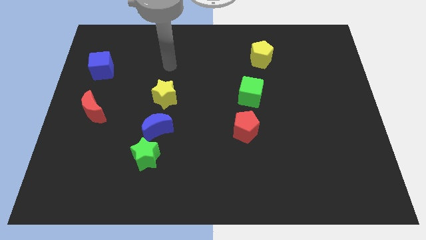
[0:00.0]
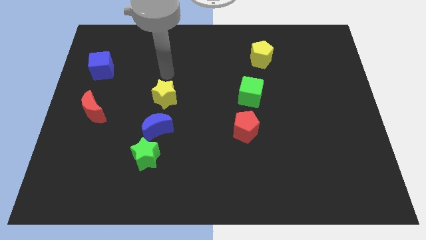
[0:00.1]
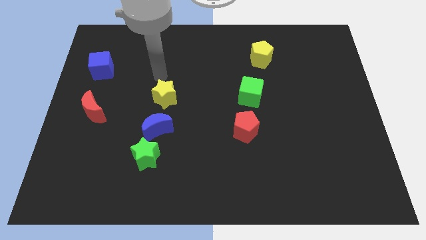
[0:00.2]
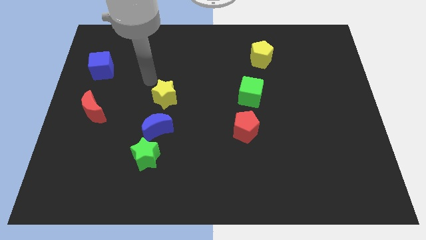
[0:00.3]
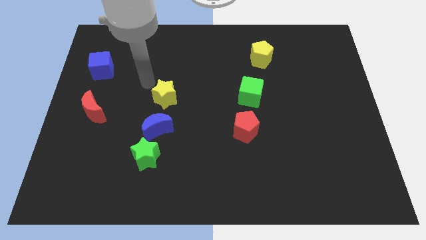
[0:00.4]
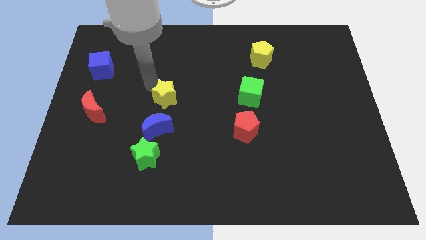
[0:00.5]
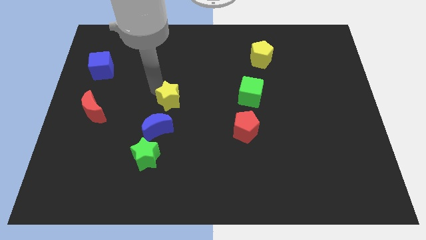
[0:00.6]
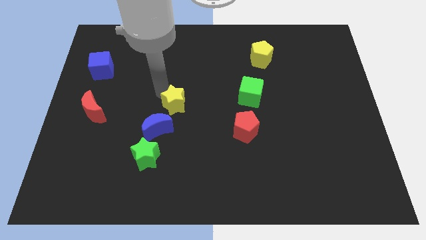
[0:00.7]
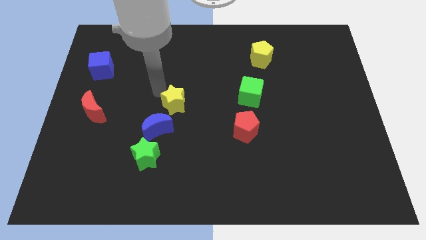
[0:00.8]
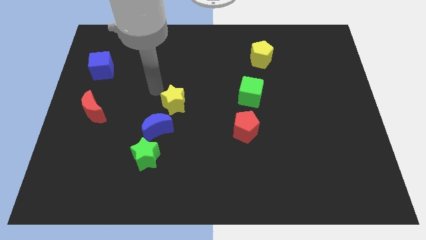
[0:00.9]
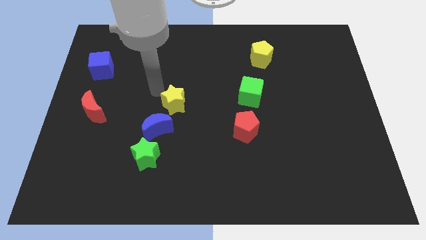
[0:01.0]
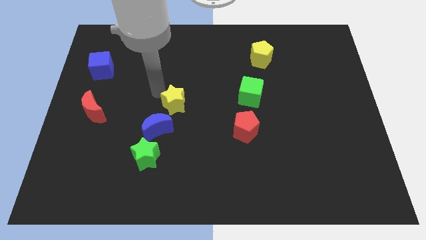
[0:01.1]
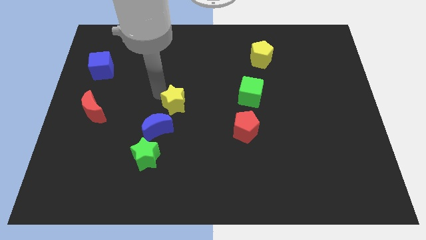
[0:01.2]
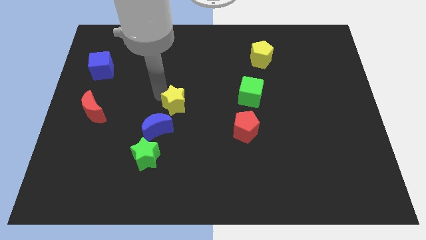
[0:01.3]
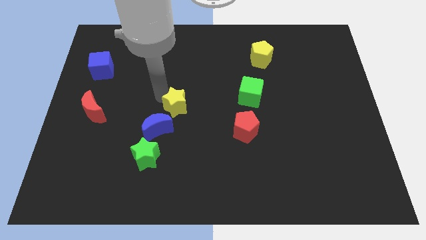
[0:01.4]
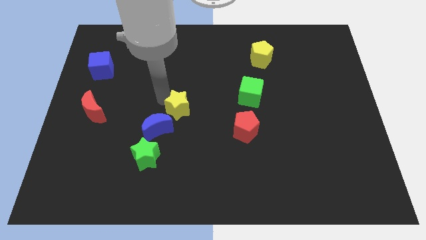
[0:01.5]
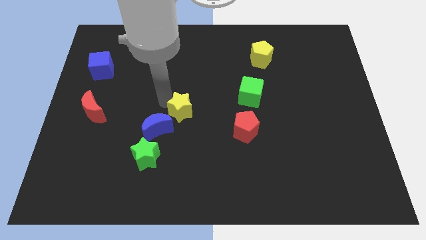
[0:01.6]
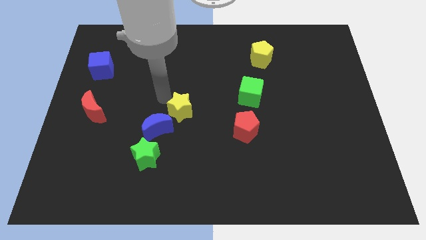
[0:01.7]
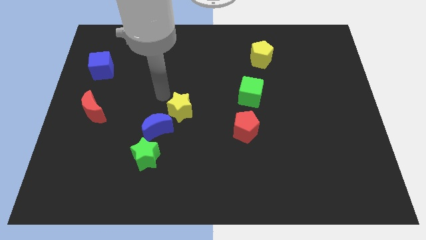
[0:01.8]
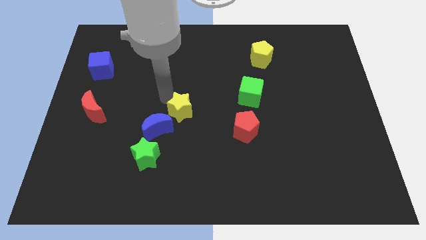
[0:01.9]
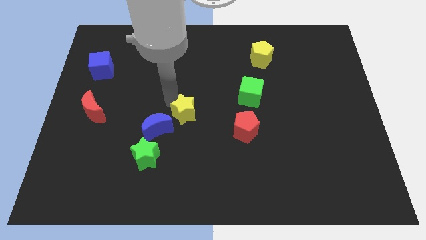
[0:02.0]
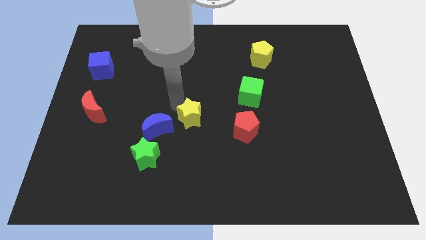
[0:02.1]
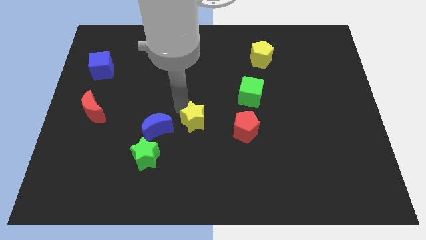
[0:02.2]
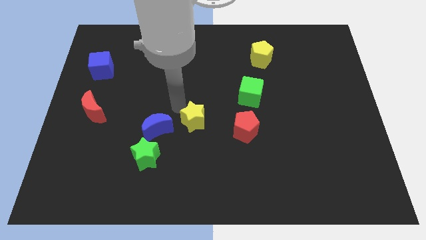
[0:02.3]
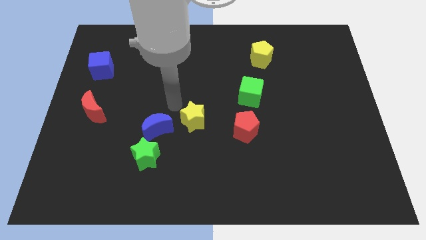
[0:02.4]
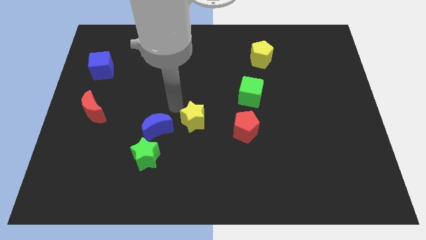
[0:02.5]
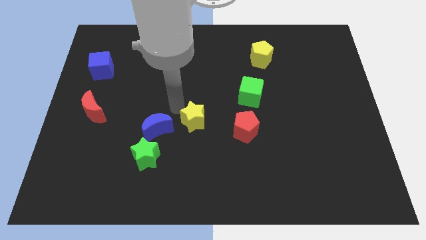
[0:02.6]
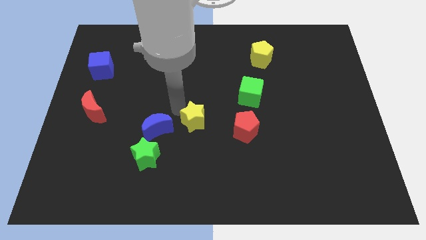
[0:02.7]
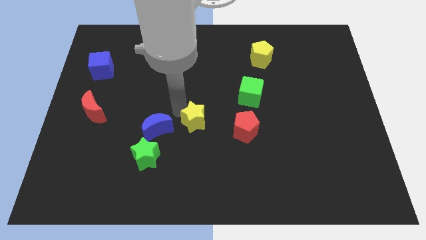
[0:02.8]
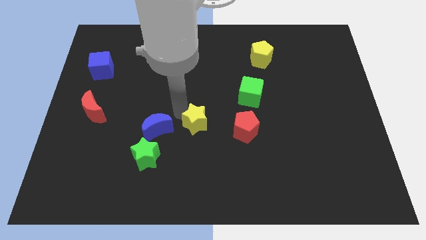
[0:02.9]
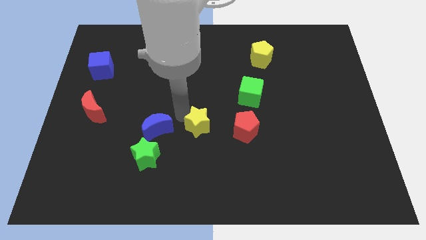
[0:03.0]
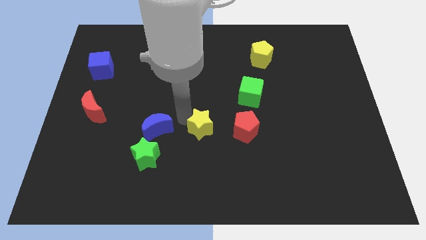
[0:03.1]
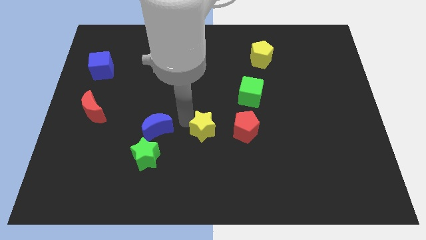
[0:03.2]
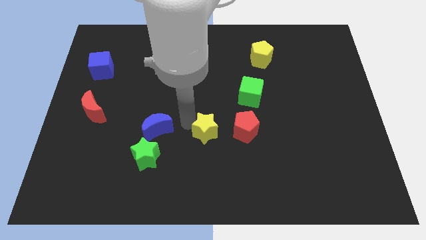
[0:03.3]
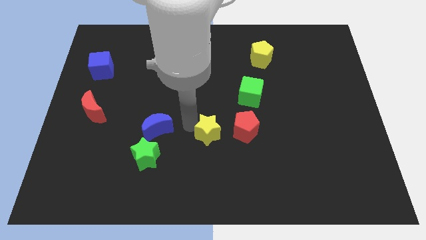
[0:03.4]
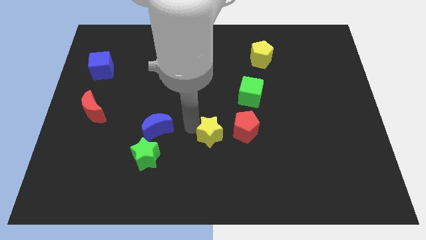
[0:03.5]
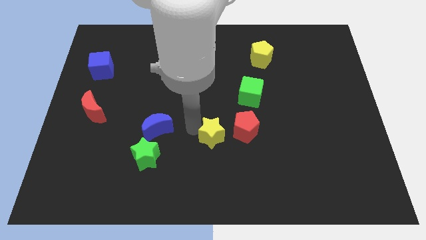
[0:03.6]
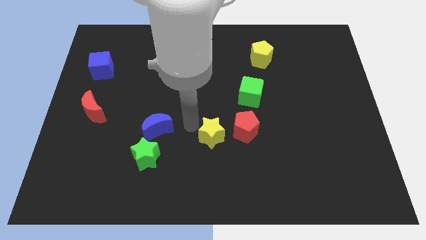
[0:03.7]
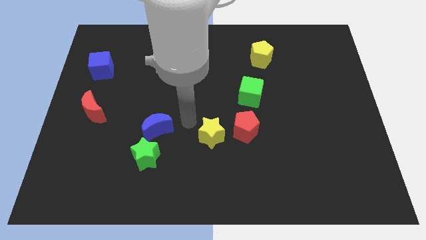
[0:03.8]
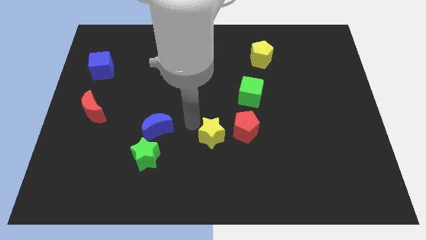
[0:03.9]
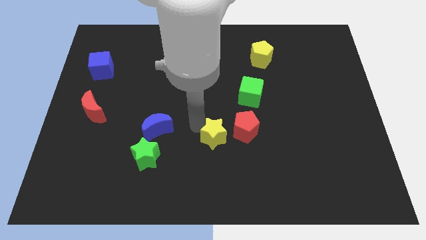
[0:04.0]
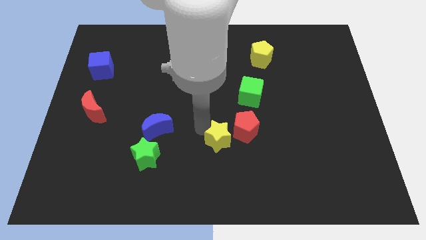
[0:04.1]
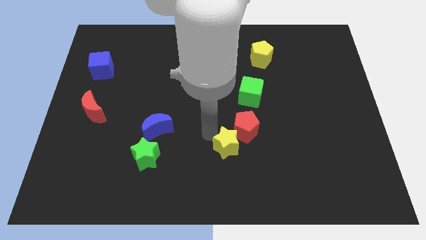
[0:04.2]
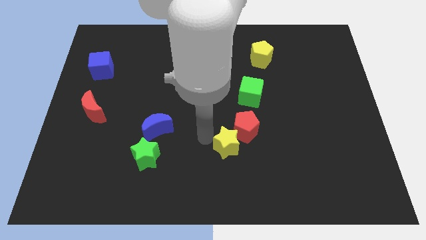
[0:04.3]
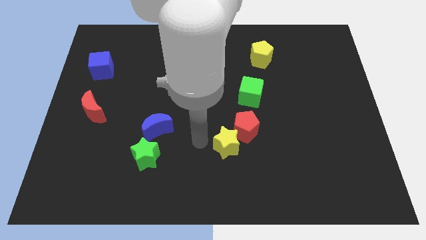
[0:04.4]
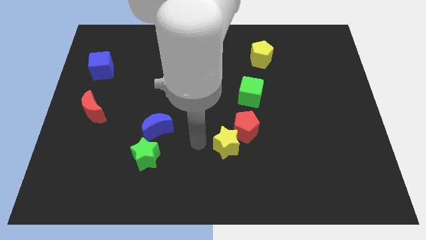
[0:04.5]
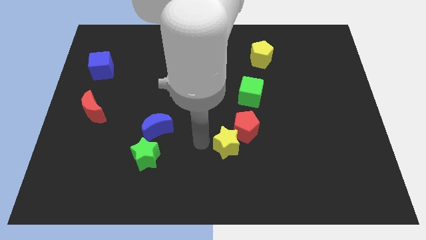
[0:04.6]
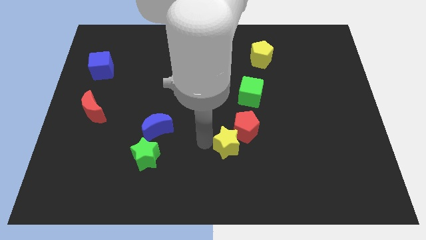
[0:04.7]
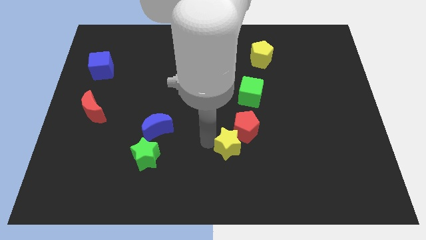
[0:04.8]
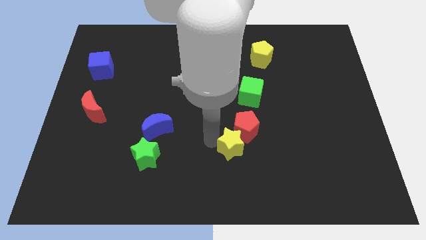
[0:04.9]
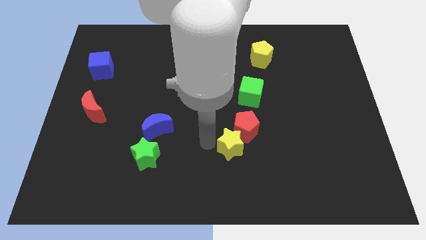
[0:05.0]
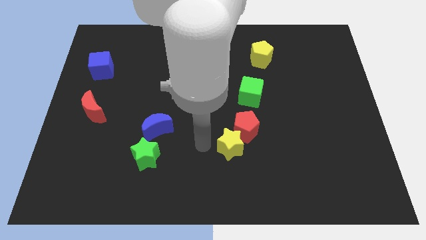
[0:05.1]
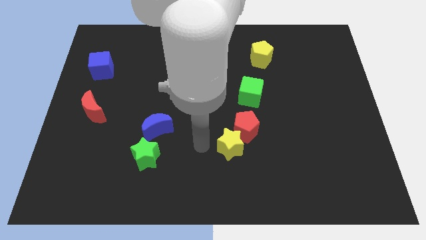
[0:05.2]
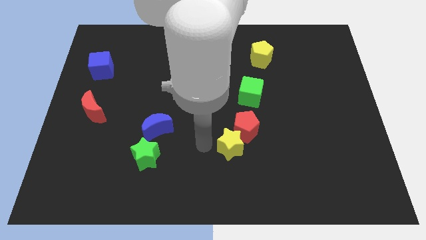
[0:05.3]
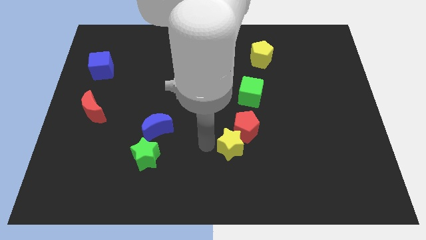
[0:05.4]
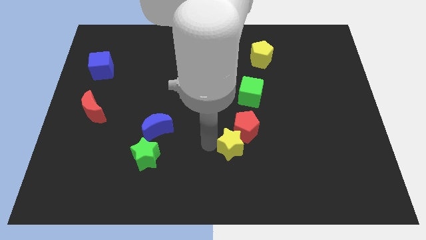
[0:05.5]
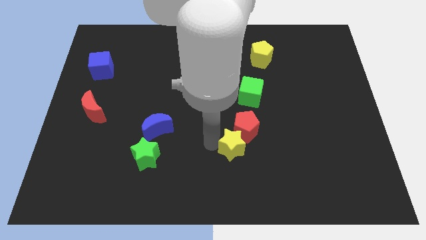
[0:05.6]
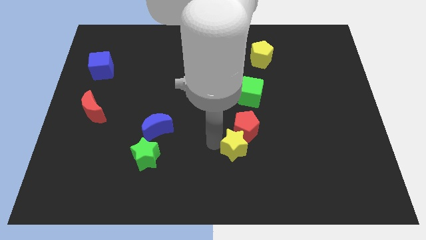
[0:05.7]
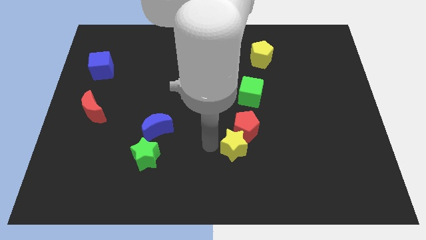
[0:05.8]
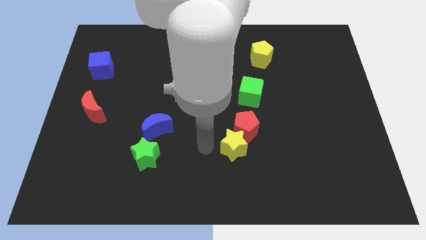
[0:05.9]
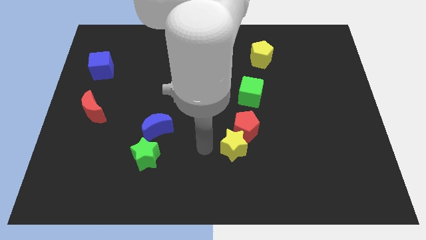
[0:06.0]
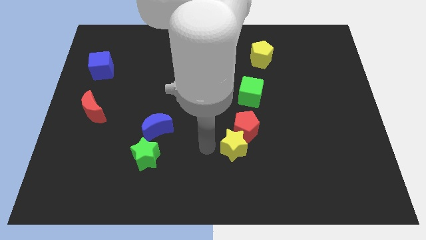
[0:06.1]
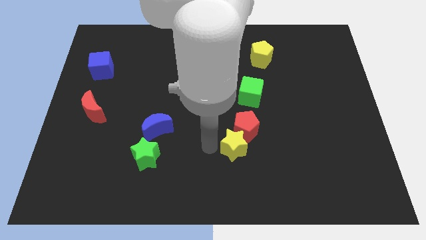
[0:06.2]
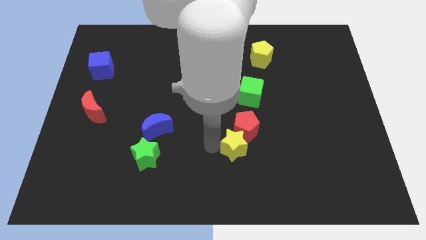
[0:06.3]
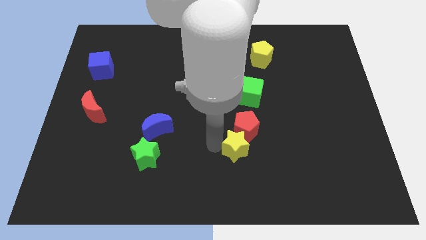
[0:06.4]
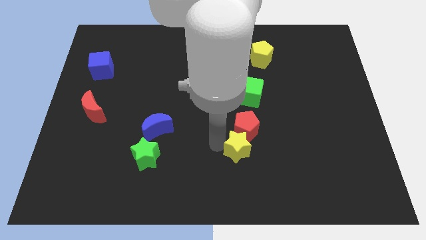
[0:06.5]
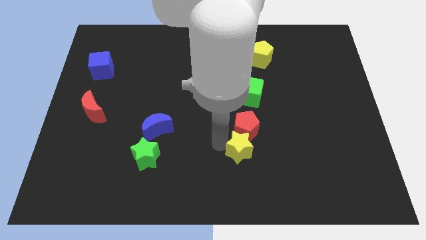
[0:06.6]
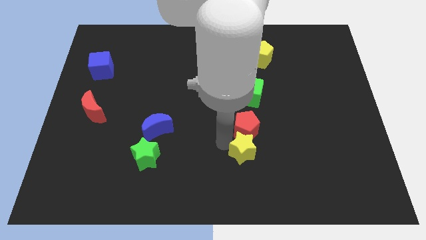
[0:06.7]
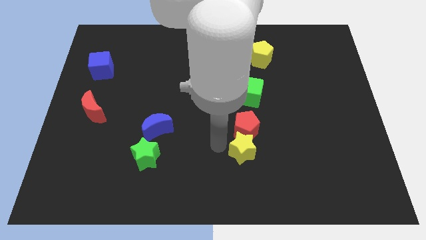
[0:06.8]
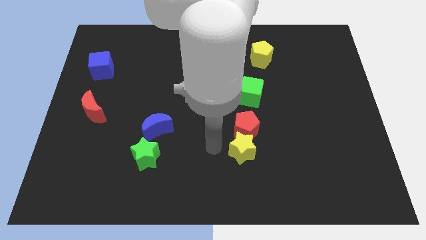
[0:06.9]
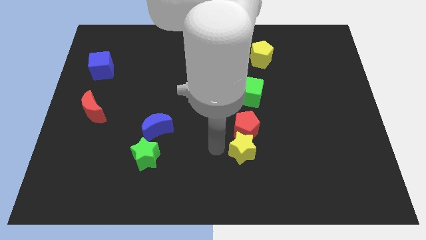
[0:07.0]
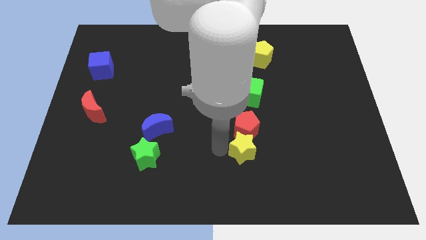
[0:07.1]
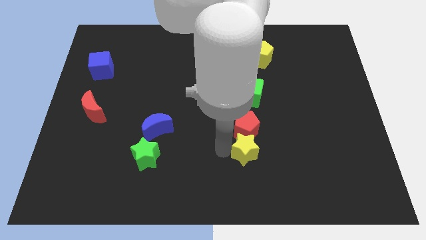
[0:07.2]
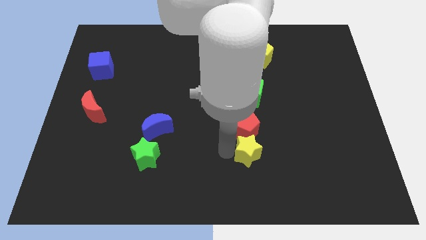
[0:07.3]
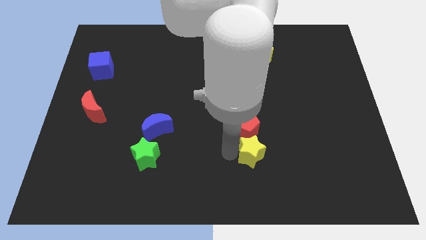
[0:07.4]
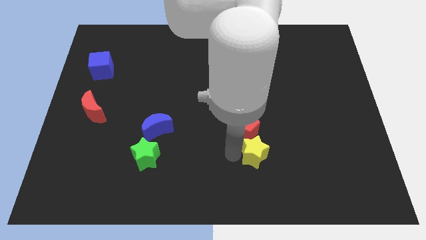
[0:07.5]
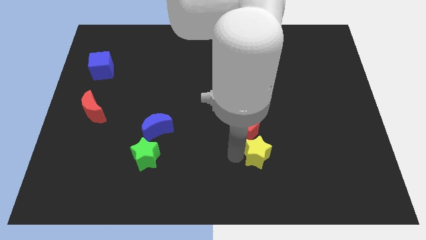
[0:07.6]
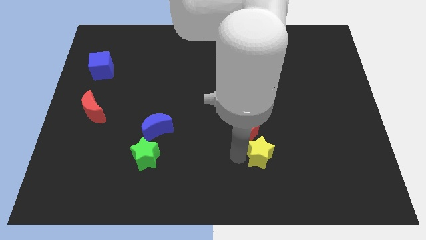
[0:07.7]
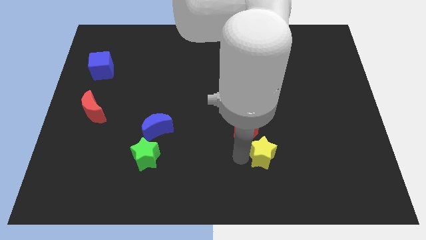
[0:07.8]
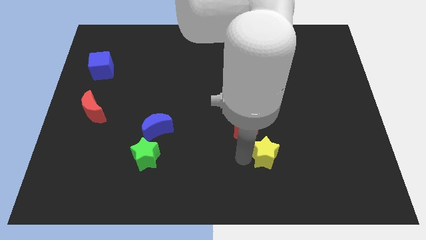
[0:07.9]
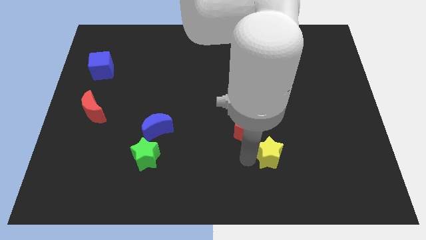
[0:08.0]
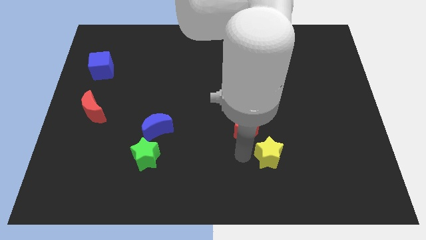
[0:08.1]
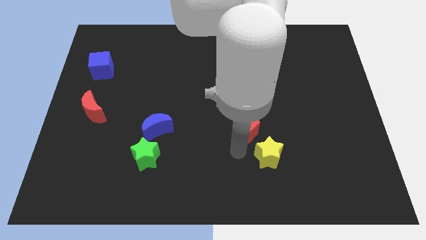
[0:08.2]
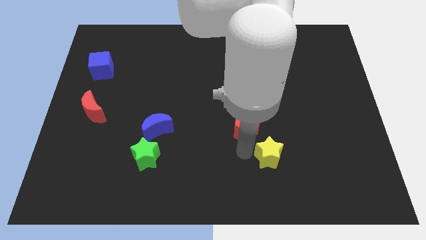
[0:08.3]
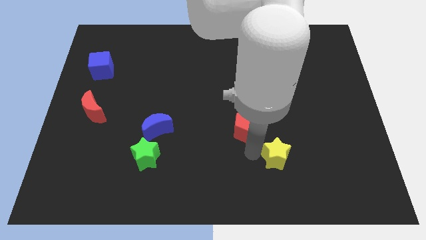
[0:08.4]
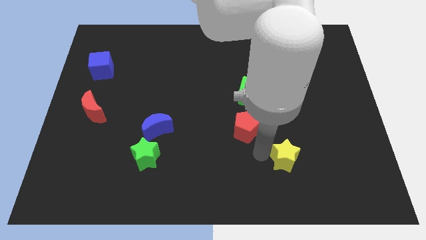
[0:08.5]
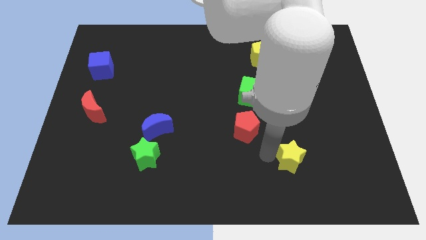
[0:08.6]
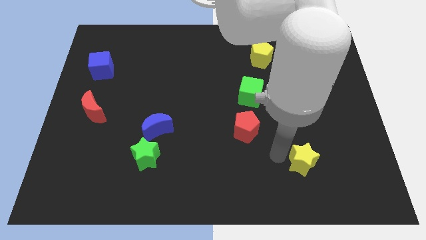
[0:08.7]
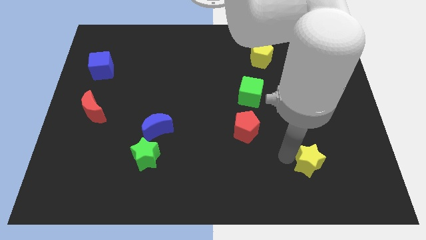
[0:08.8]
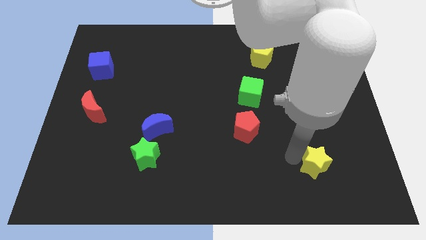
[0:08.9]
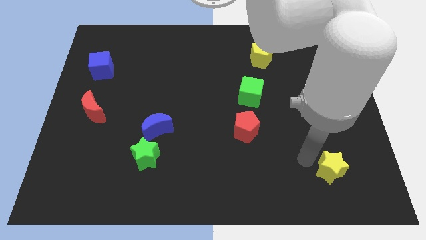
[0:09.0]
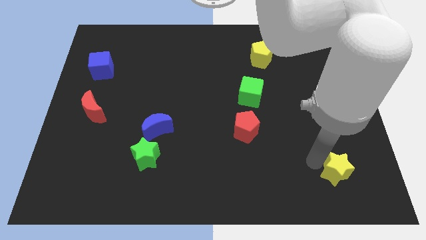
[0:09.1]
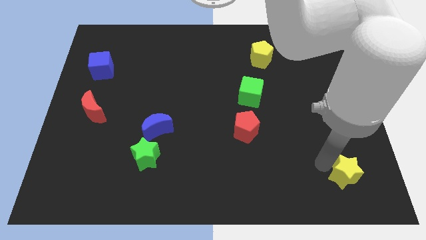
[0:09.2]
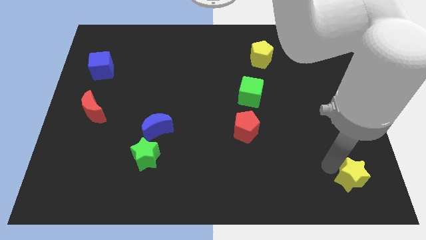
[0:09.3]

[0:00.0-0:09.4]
move the yellow star to the lower right corner
